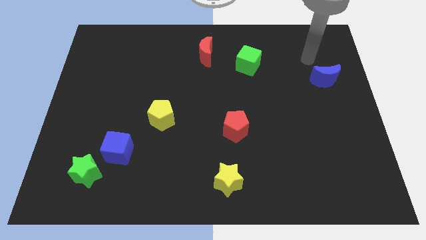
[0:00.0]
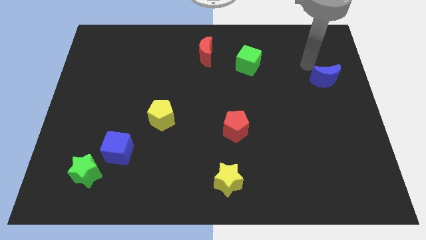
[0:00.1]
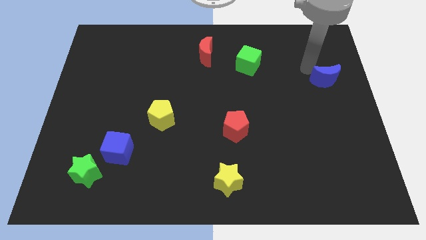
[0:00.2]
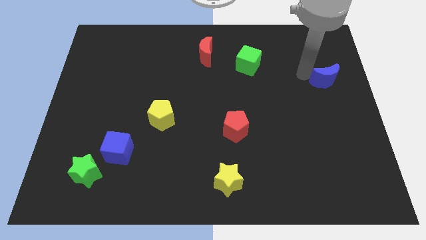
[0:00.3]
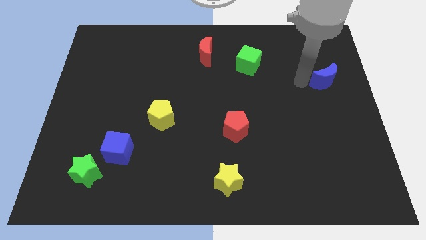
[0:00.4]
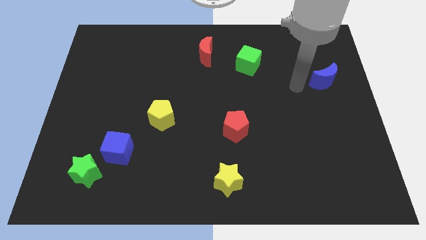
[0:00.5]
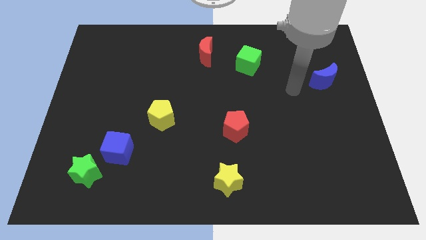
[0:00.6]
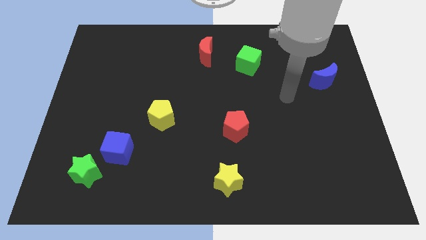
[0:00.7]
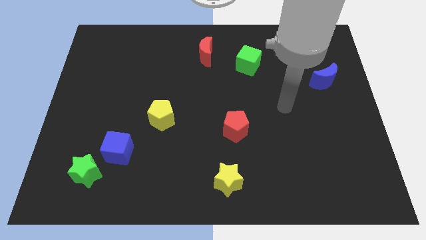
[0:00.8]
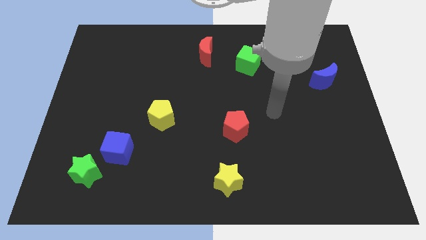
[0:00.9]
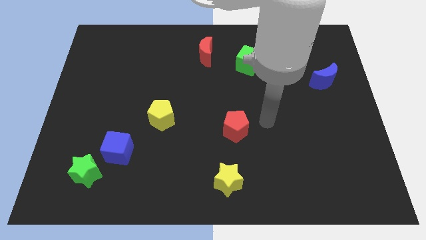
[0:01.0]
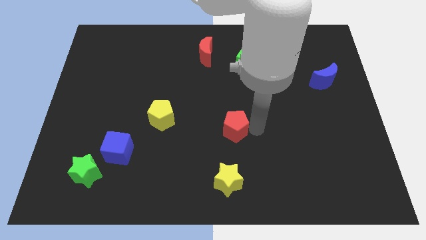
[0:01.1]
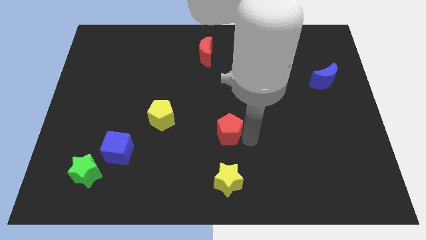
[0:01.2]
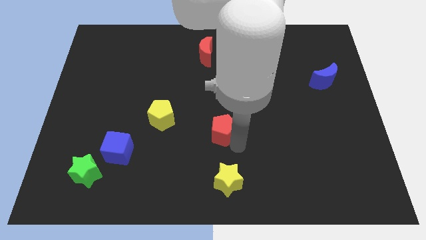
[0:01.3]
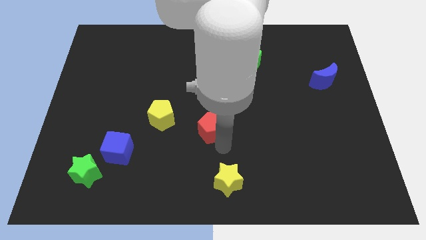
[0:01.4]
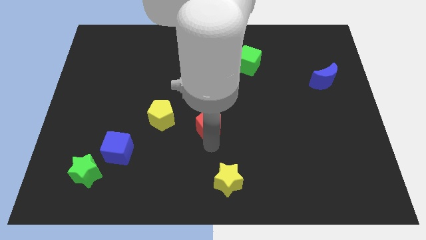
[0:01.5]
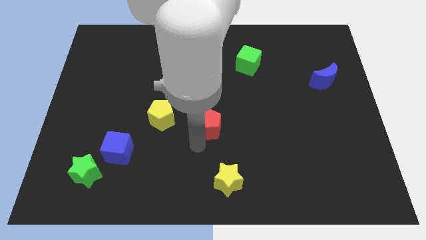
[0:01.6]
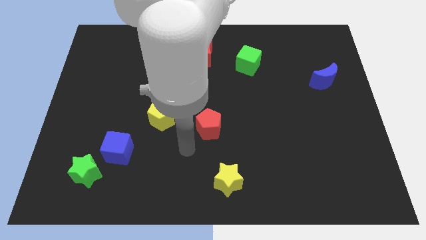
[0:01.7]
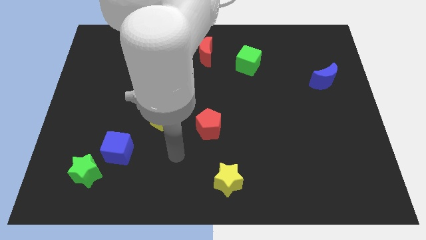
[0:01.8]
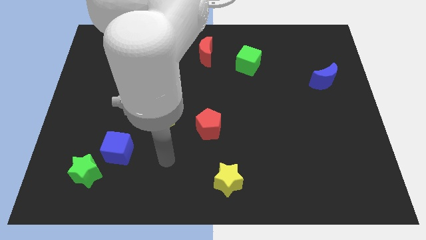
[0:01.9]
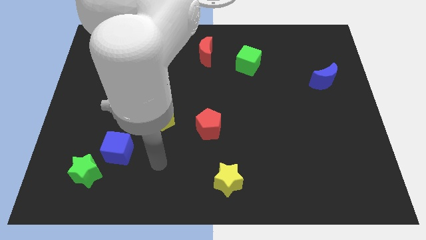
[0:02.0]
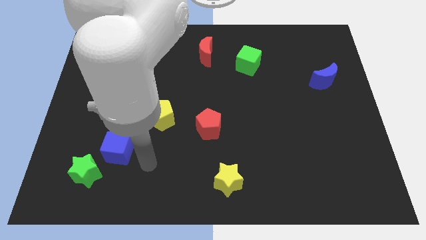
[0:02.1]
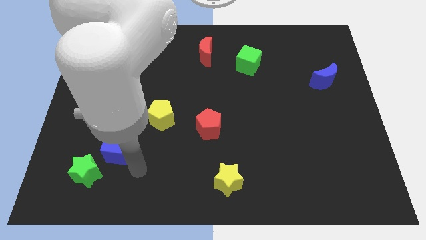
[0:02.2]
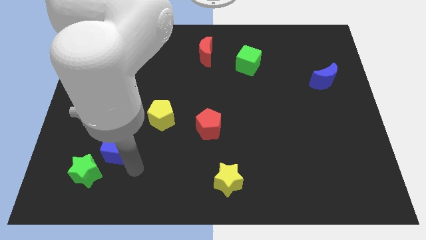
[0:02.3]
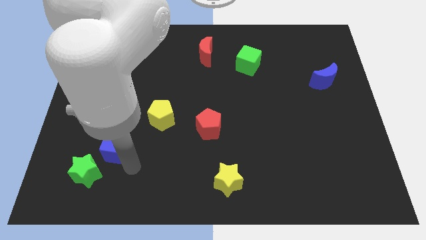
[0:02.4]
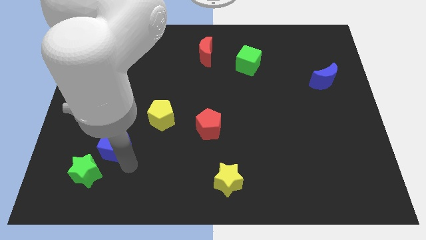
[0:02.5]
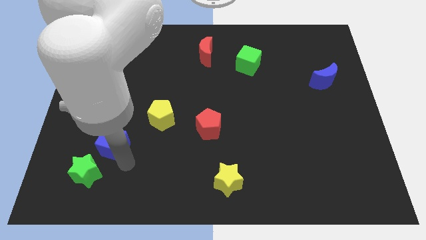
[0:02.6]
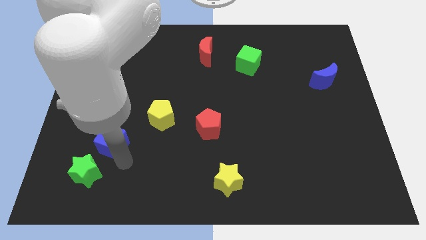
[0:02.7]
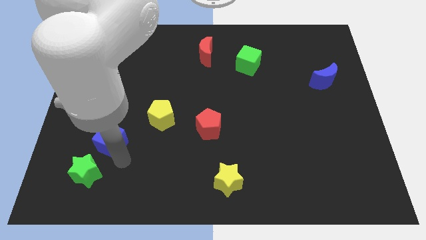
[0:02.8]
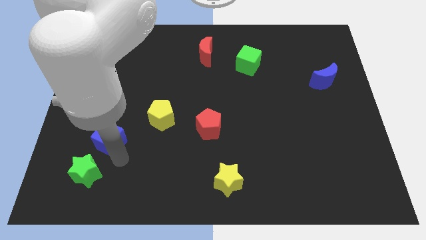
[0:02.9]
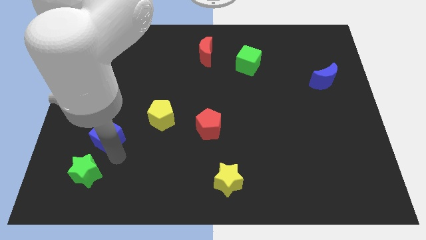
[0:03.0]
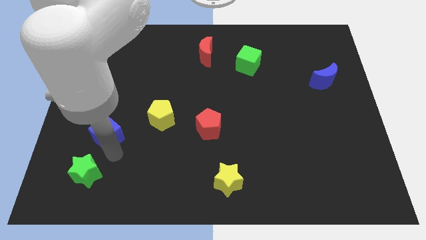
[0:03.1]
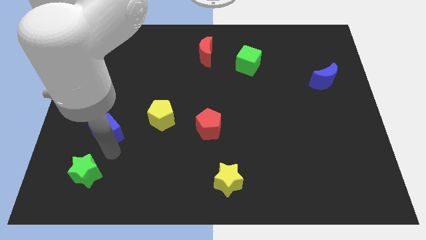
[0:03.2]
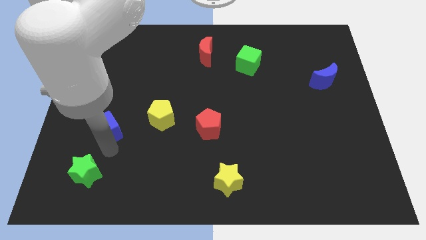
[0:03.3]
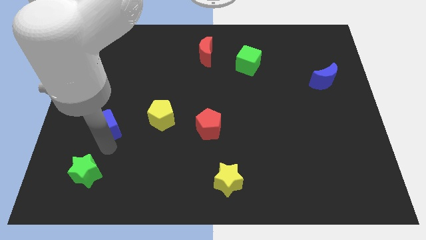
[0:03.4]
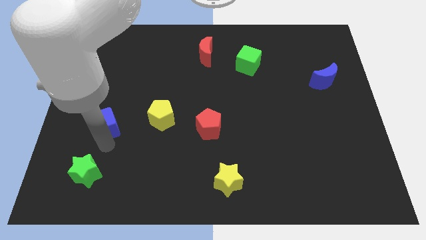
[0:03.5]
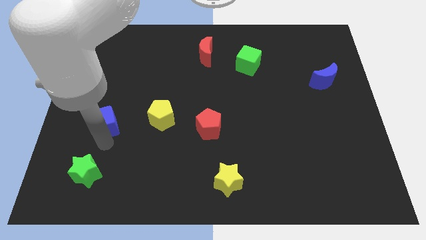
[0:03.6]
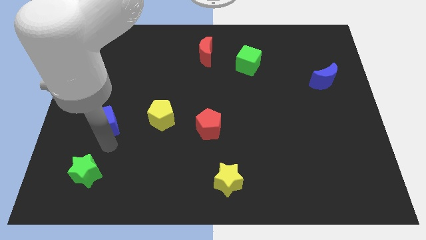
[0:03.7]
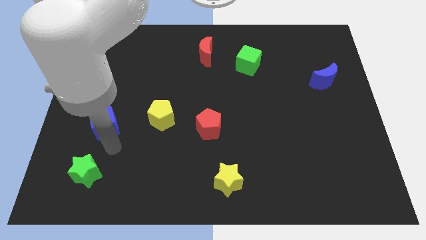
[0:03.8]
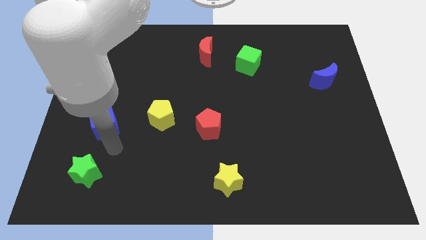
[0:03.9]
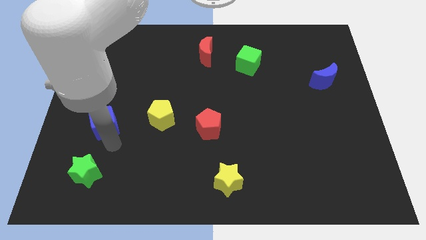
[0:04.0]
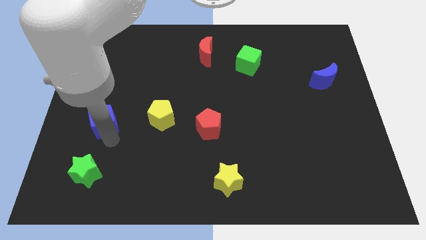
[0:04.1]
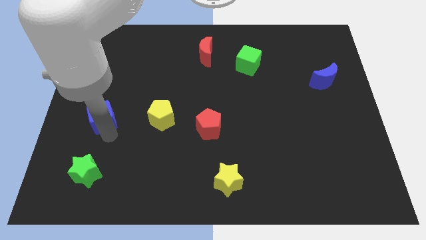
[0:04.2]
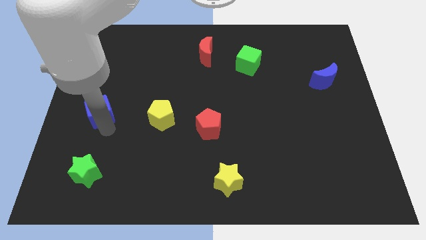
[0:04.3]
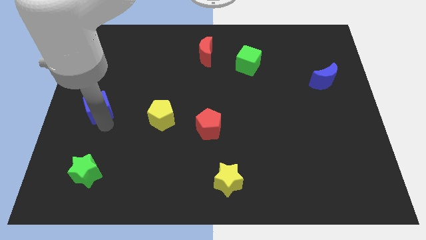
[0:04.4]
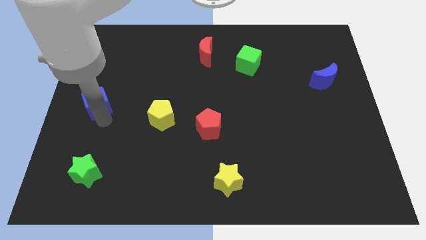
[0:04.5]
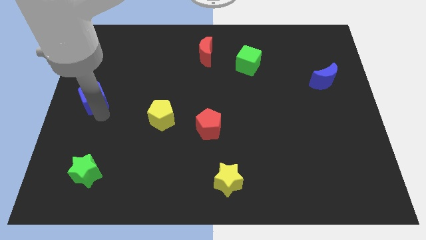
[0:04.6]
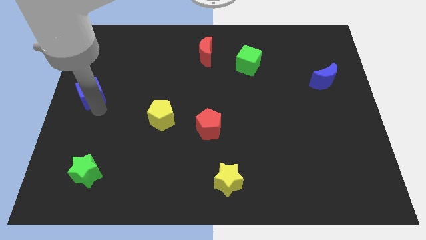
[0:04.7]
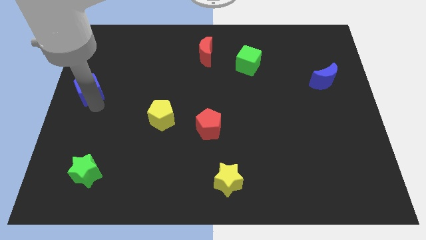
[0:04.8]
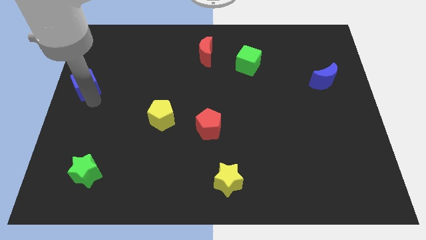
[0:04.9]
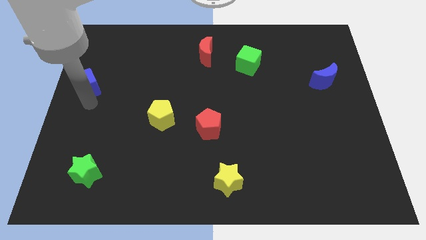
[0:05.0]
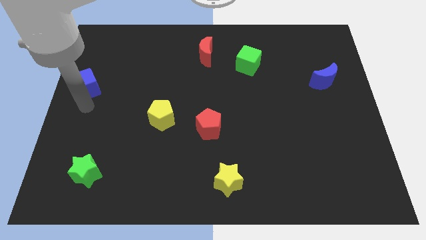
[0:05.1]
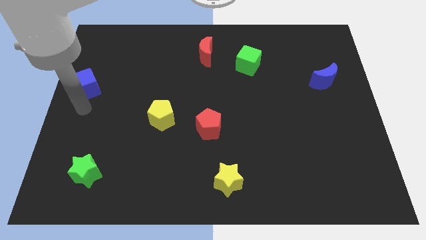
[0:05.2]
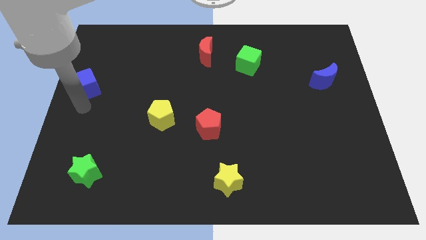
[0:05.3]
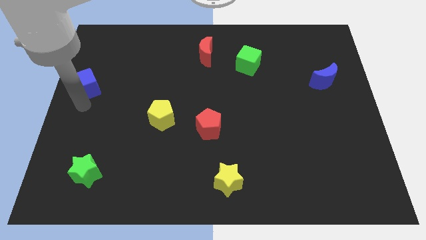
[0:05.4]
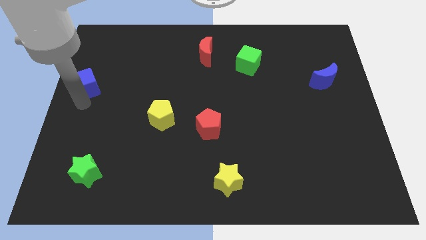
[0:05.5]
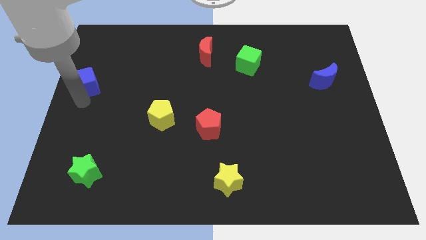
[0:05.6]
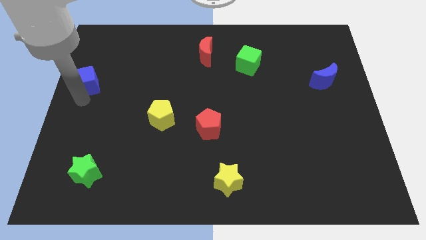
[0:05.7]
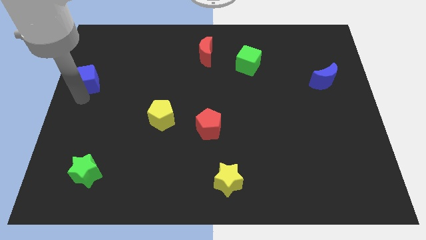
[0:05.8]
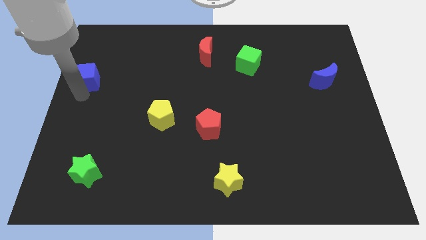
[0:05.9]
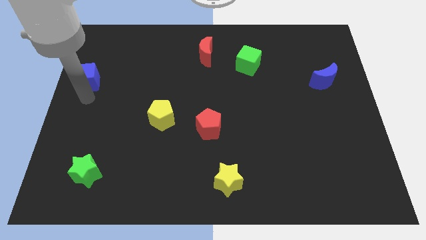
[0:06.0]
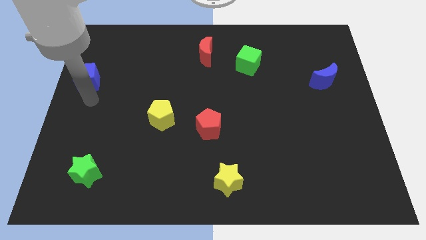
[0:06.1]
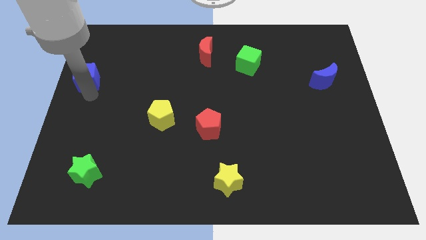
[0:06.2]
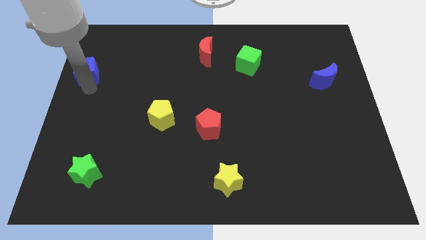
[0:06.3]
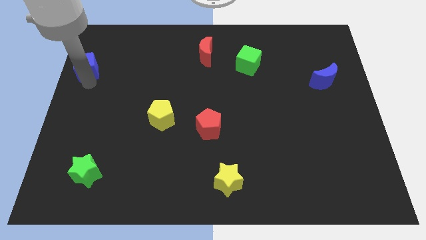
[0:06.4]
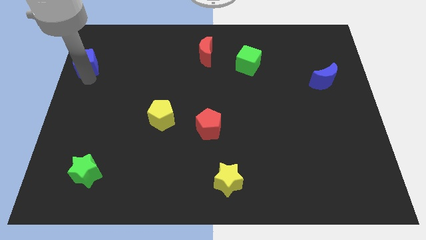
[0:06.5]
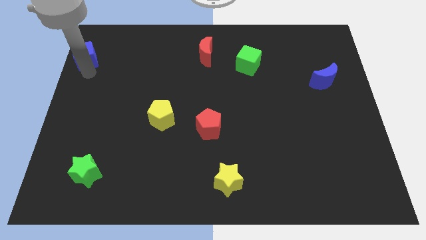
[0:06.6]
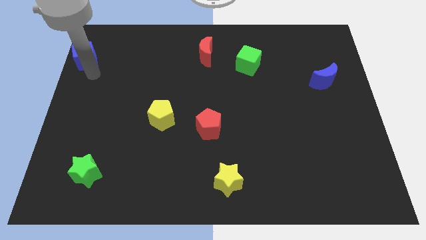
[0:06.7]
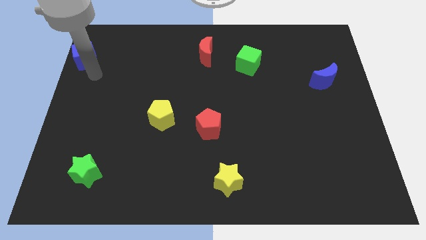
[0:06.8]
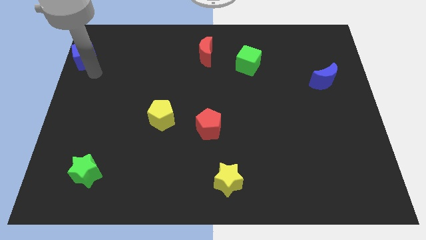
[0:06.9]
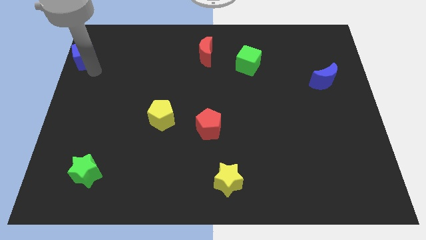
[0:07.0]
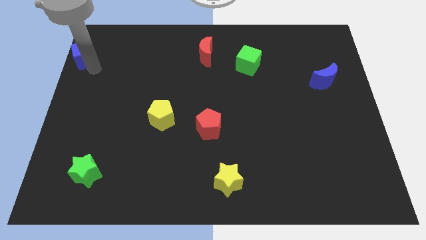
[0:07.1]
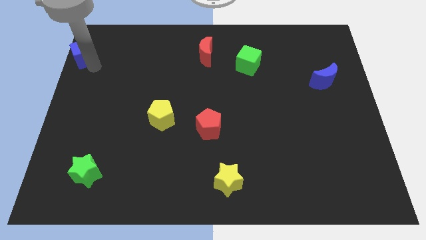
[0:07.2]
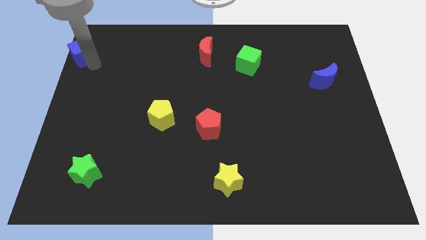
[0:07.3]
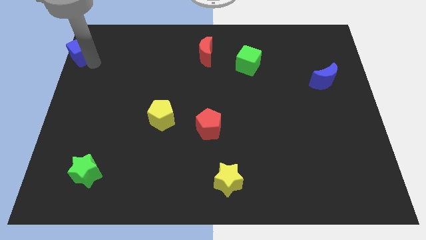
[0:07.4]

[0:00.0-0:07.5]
put the blue cube to the top left corner
